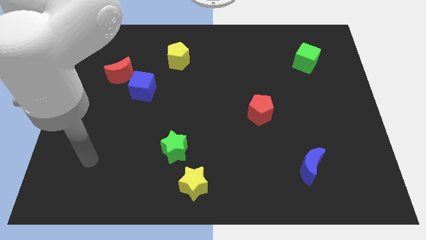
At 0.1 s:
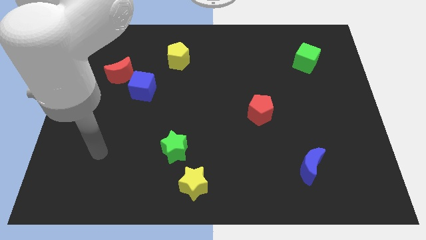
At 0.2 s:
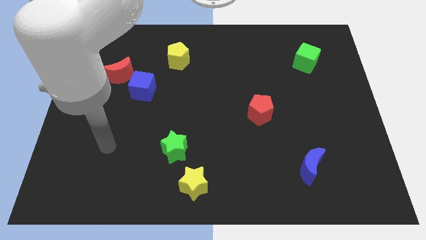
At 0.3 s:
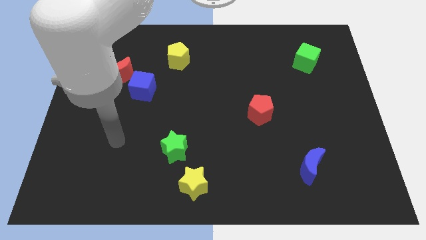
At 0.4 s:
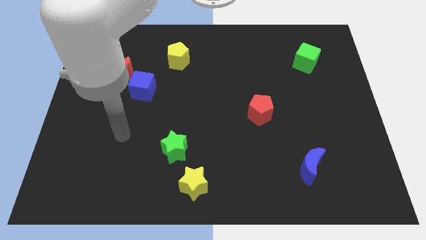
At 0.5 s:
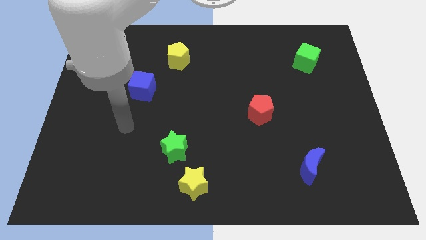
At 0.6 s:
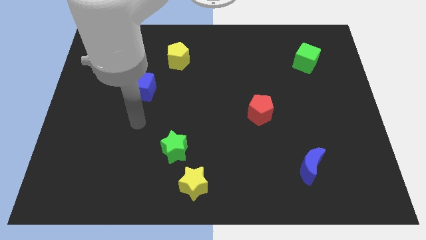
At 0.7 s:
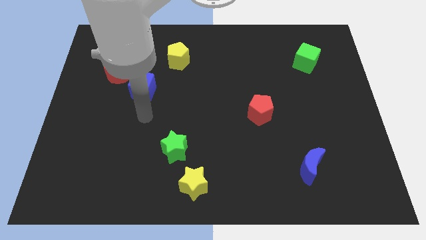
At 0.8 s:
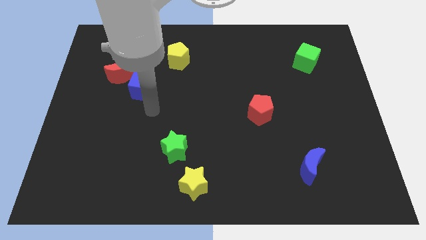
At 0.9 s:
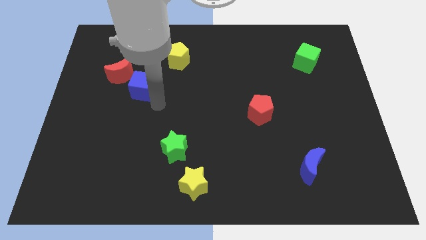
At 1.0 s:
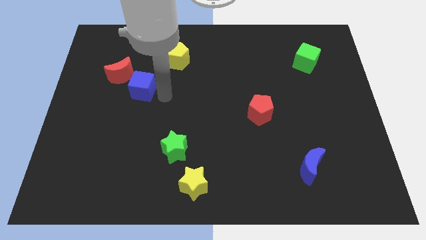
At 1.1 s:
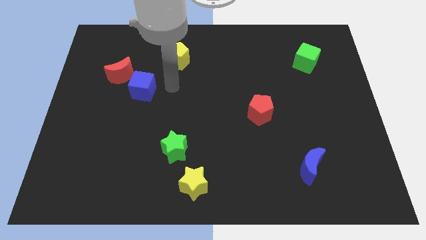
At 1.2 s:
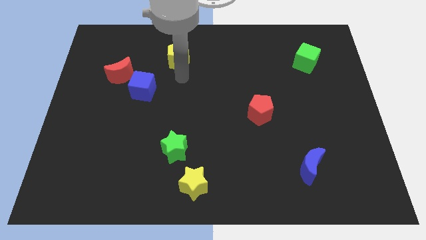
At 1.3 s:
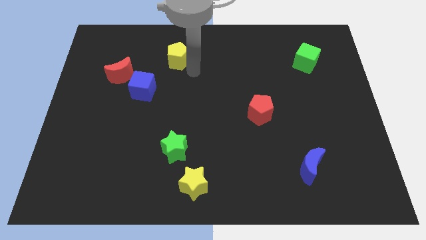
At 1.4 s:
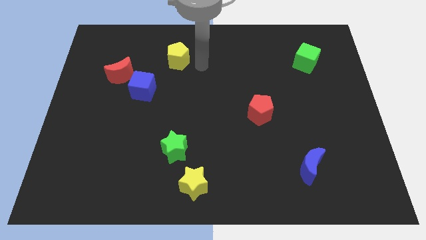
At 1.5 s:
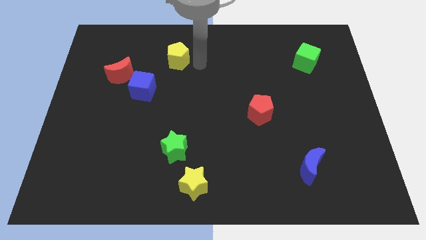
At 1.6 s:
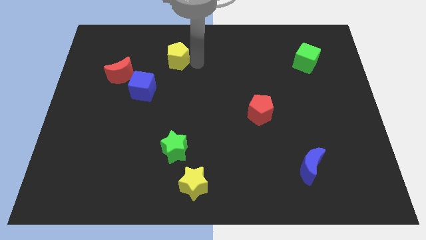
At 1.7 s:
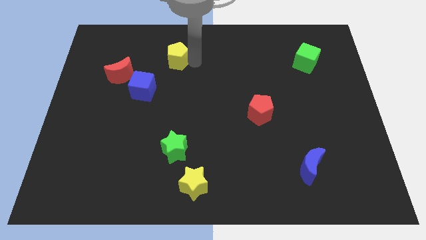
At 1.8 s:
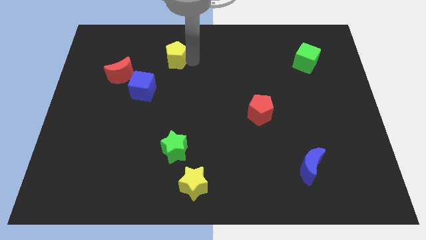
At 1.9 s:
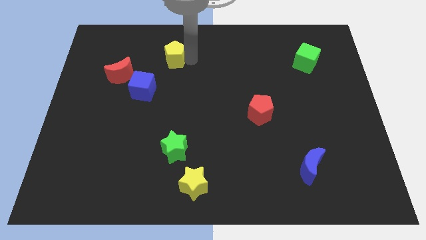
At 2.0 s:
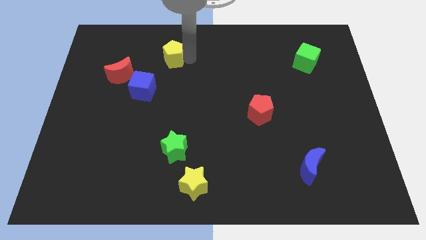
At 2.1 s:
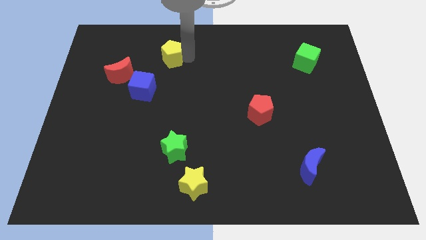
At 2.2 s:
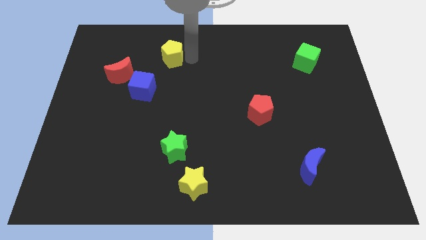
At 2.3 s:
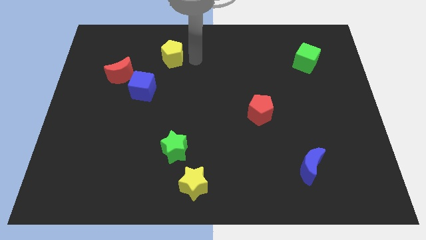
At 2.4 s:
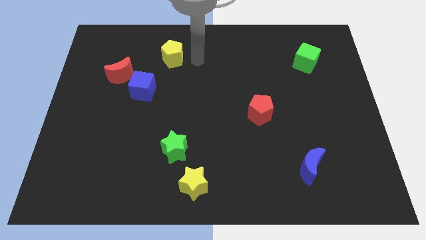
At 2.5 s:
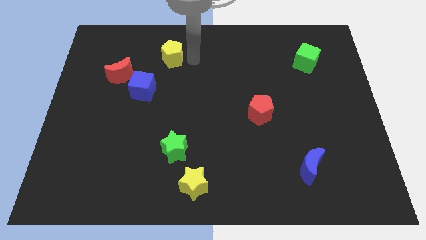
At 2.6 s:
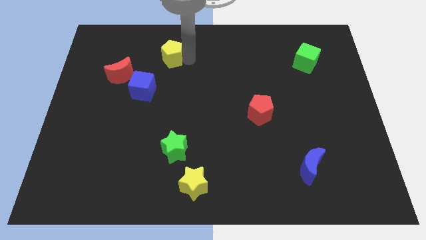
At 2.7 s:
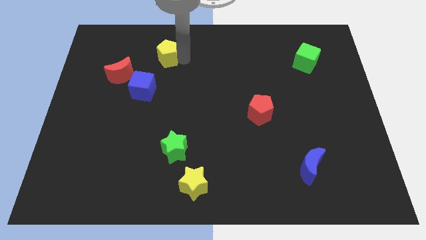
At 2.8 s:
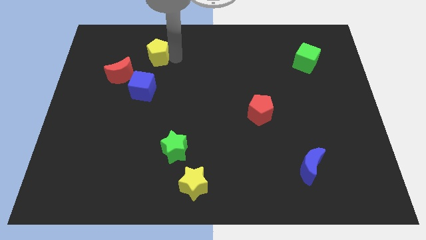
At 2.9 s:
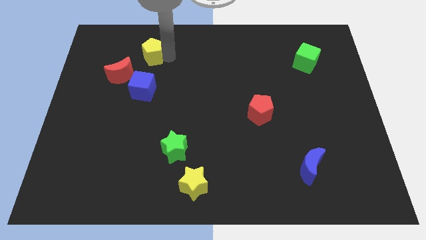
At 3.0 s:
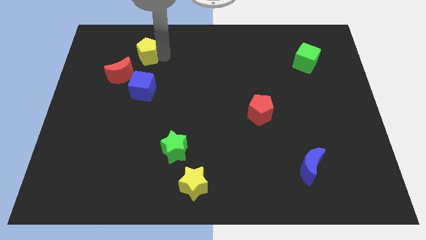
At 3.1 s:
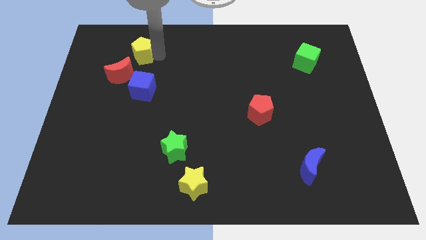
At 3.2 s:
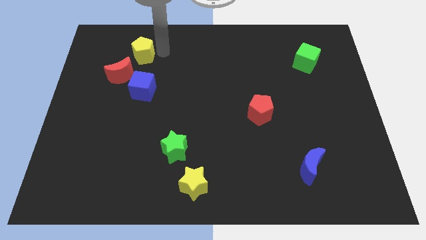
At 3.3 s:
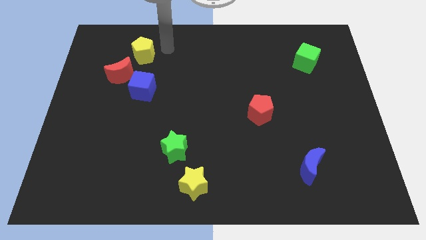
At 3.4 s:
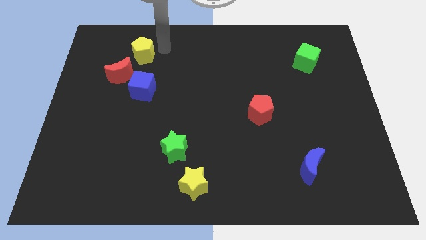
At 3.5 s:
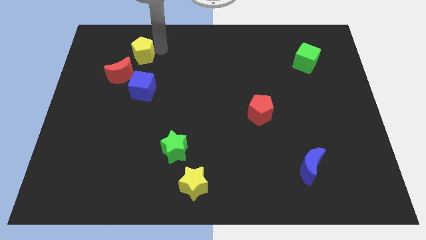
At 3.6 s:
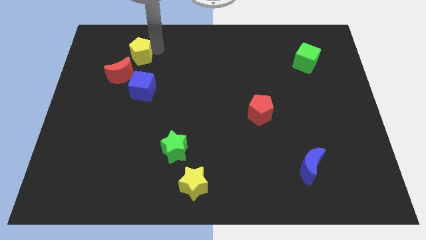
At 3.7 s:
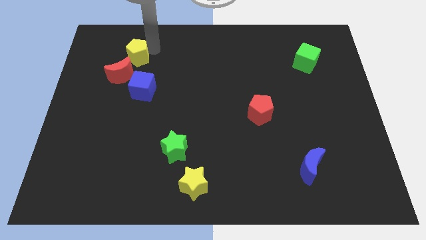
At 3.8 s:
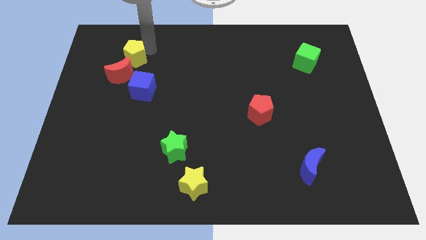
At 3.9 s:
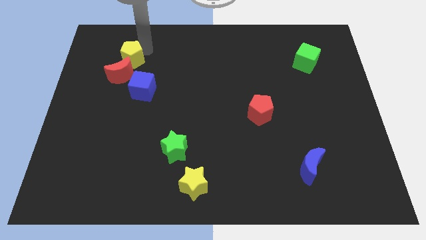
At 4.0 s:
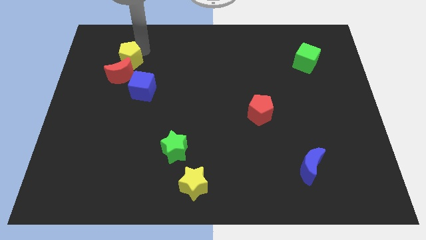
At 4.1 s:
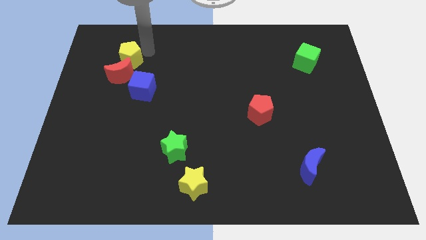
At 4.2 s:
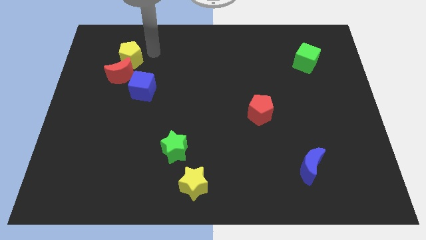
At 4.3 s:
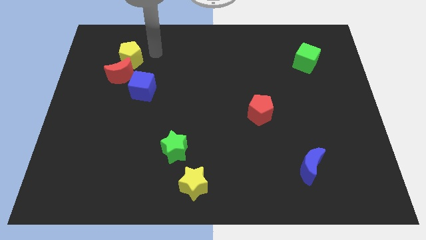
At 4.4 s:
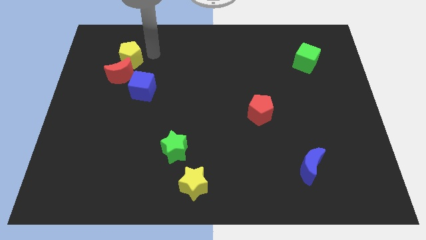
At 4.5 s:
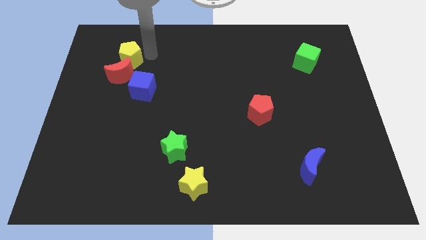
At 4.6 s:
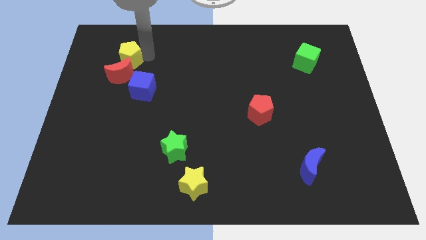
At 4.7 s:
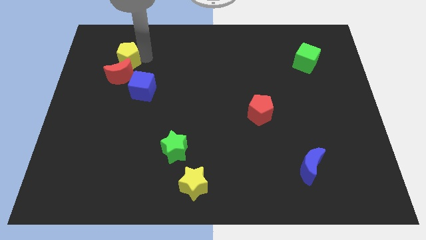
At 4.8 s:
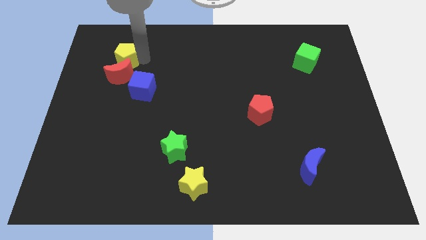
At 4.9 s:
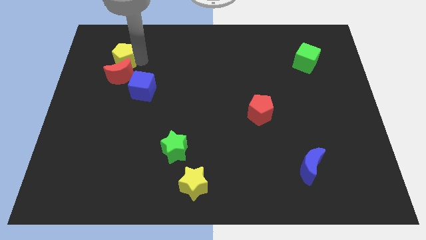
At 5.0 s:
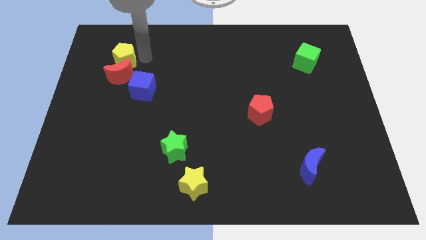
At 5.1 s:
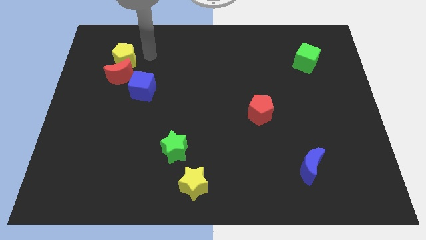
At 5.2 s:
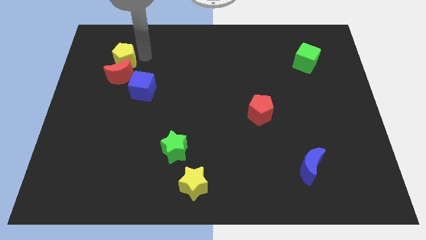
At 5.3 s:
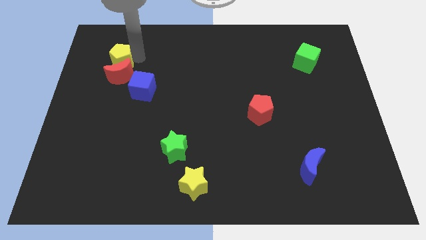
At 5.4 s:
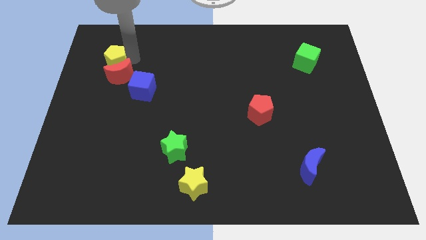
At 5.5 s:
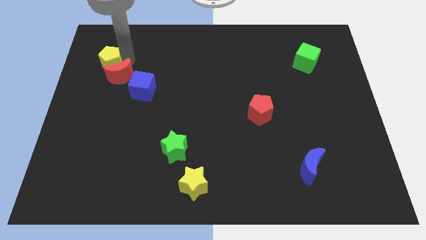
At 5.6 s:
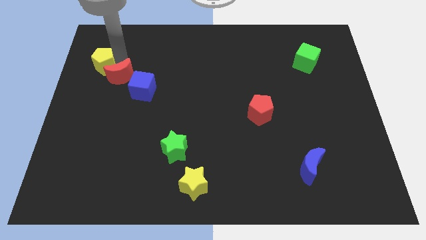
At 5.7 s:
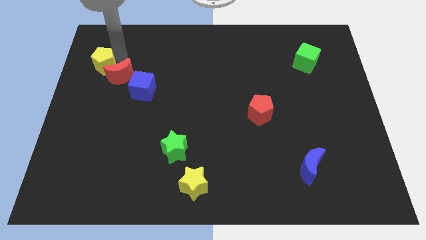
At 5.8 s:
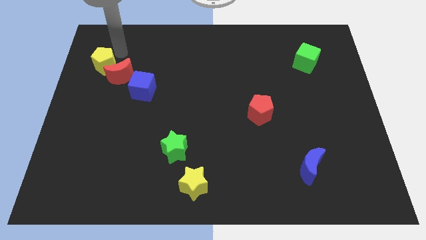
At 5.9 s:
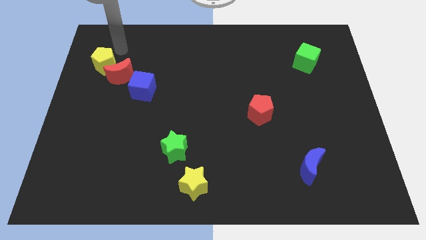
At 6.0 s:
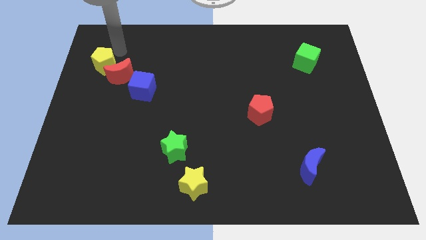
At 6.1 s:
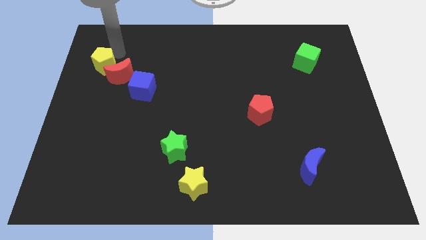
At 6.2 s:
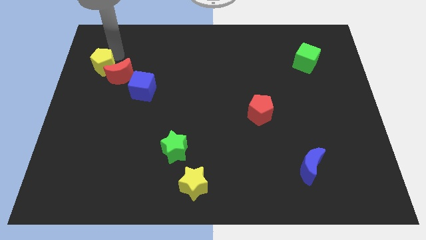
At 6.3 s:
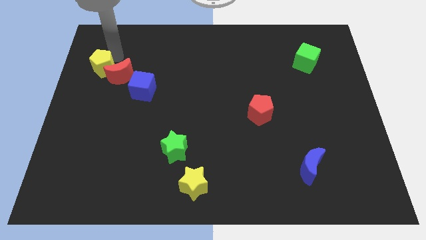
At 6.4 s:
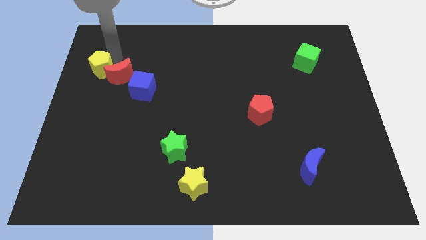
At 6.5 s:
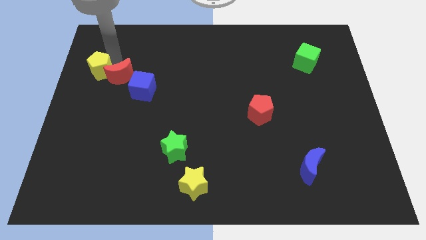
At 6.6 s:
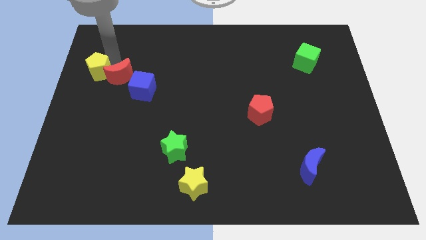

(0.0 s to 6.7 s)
move the yellow pentagon to the left side
